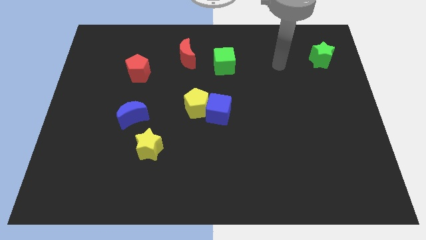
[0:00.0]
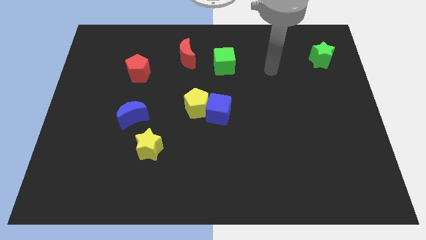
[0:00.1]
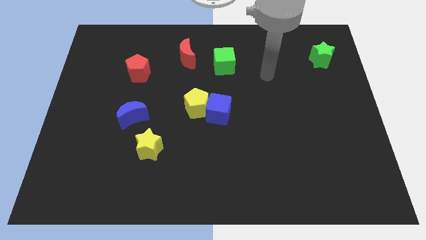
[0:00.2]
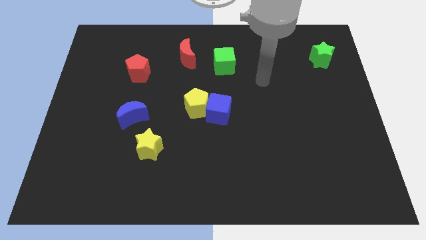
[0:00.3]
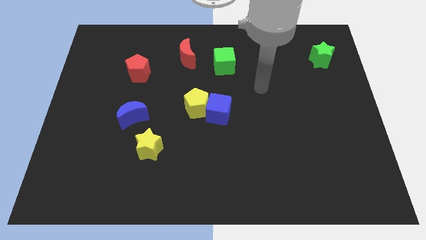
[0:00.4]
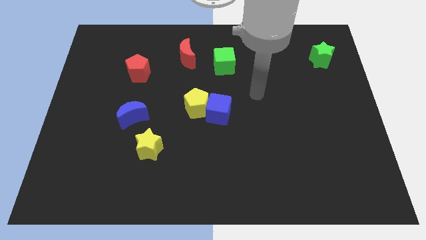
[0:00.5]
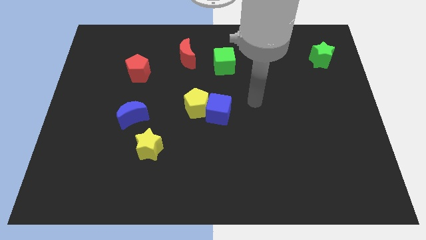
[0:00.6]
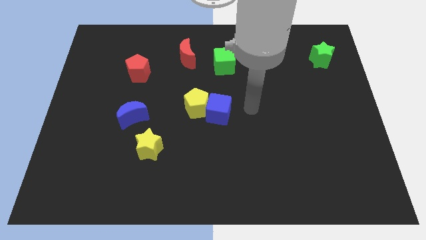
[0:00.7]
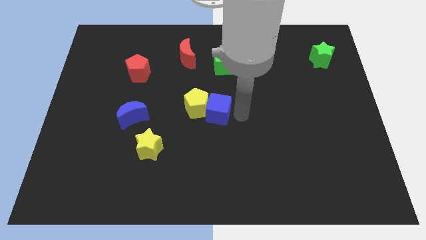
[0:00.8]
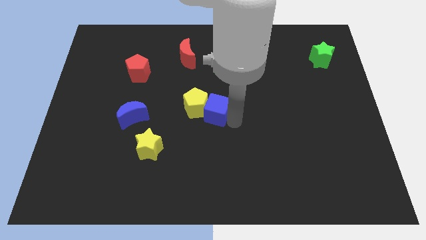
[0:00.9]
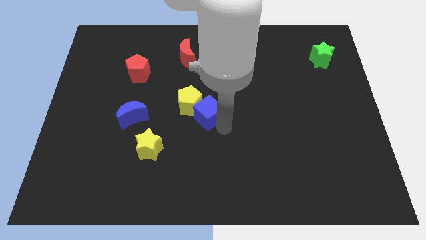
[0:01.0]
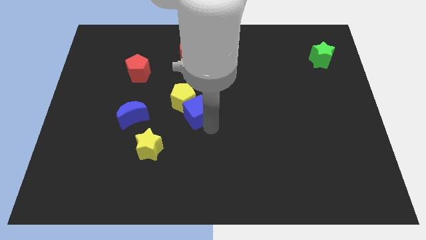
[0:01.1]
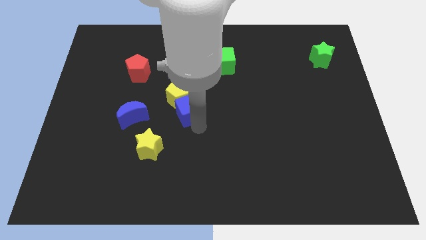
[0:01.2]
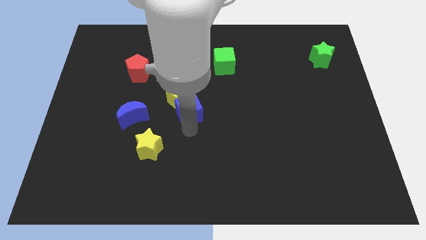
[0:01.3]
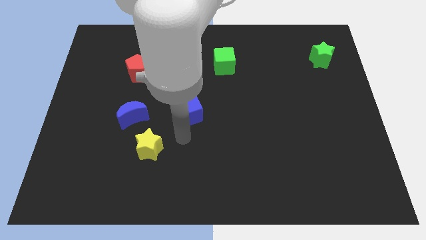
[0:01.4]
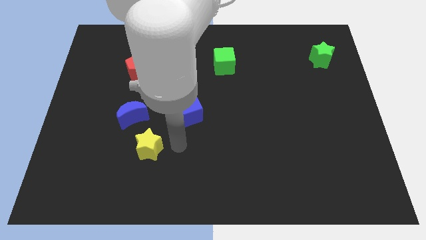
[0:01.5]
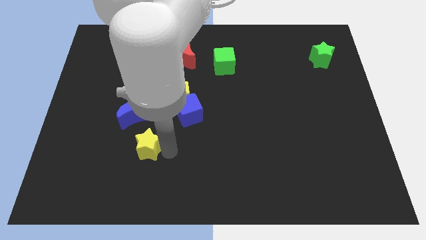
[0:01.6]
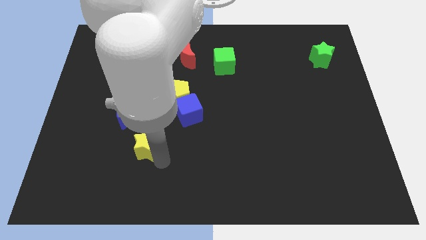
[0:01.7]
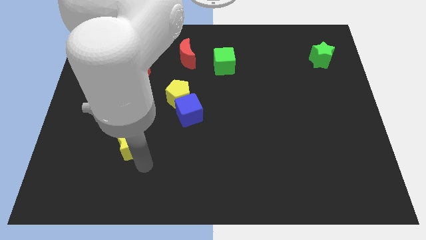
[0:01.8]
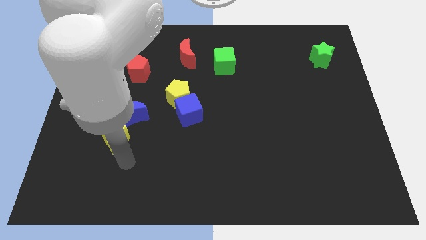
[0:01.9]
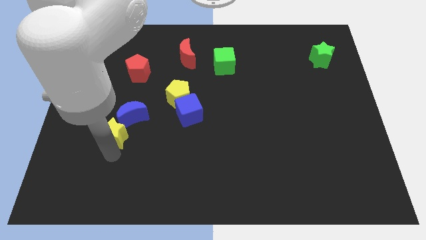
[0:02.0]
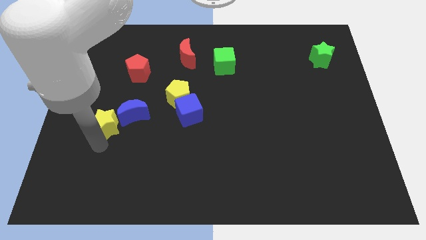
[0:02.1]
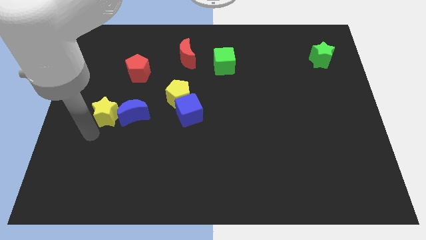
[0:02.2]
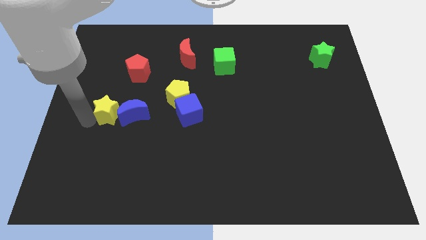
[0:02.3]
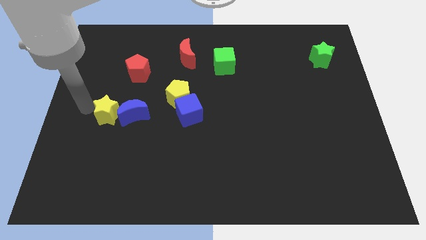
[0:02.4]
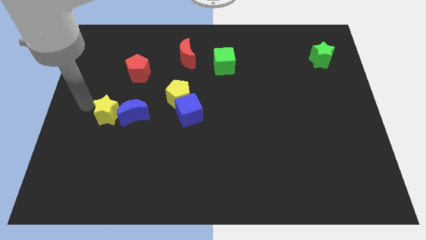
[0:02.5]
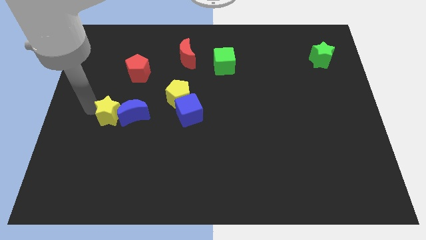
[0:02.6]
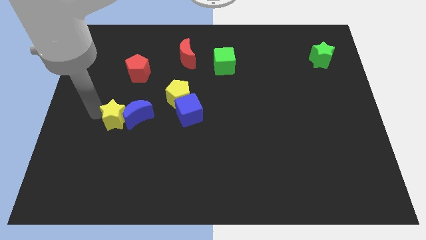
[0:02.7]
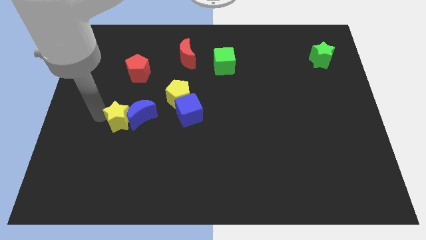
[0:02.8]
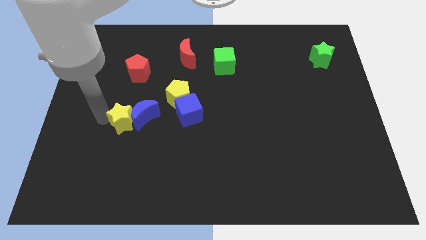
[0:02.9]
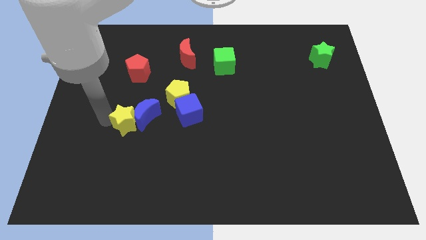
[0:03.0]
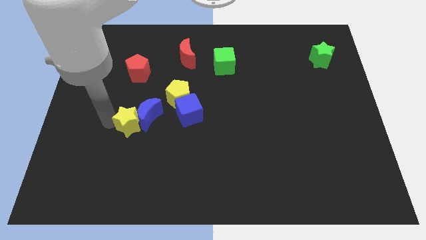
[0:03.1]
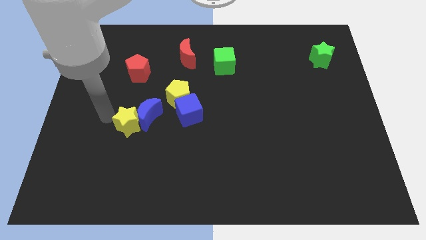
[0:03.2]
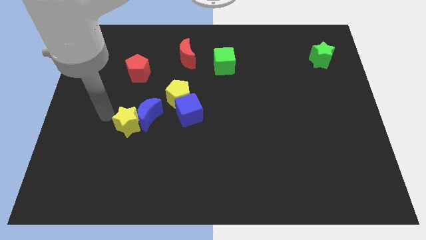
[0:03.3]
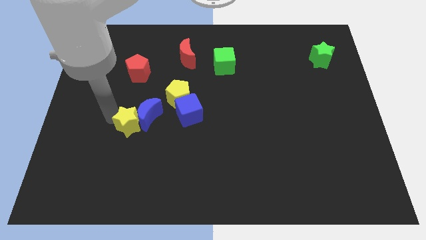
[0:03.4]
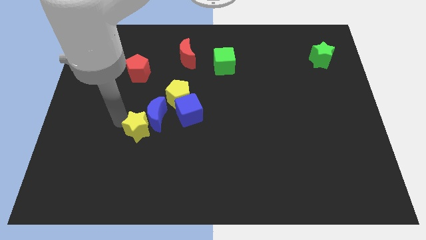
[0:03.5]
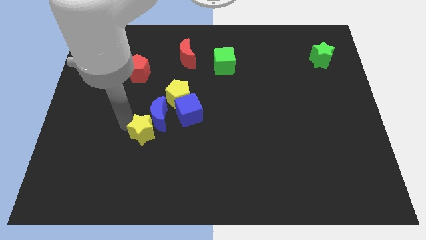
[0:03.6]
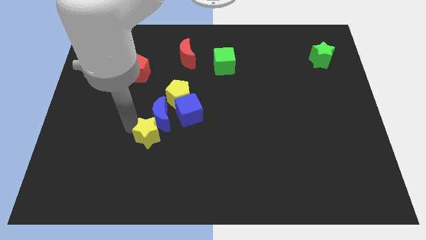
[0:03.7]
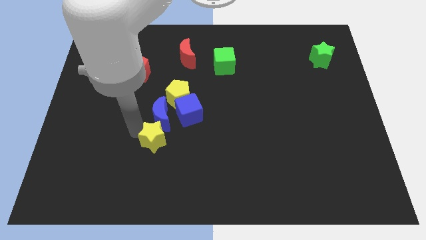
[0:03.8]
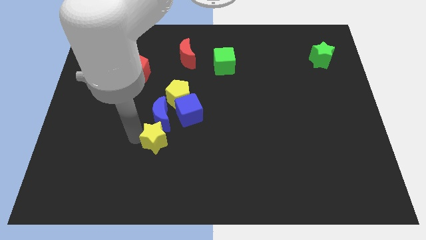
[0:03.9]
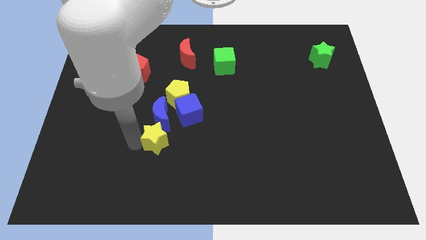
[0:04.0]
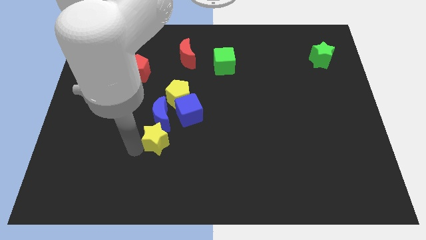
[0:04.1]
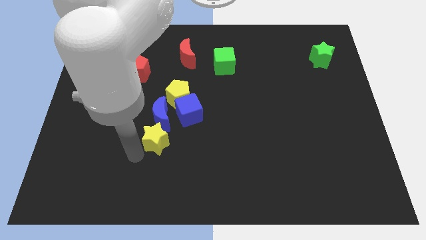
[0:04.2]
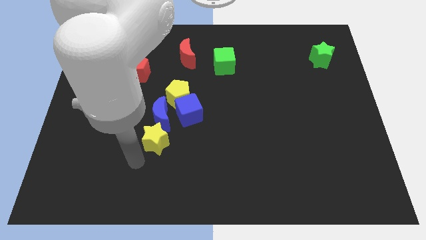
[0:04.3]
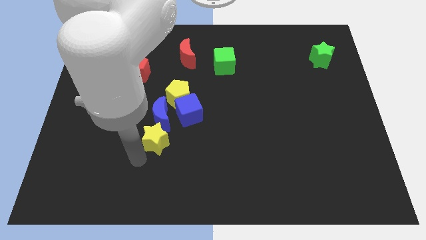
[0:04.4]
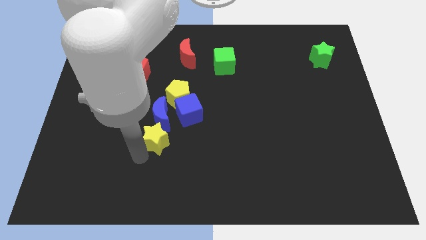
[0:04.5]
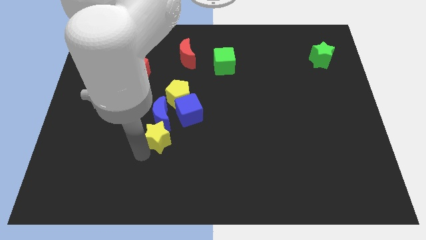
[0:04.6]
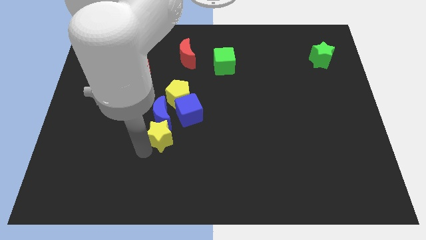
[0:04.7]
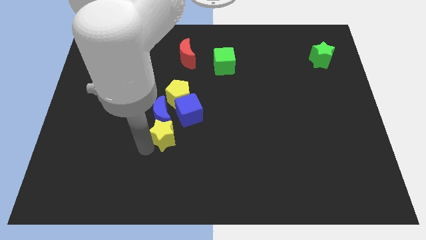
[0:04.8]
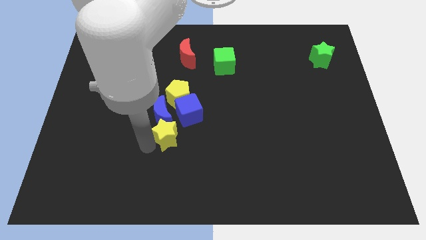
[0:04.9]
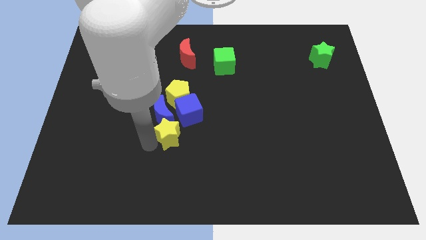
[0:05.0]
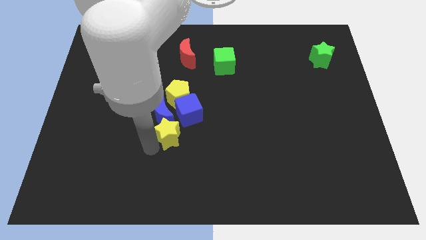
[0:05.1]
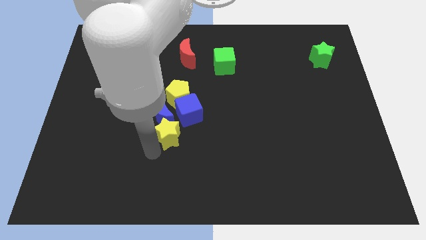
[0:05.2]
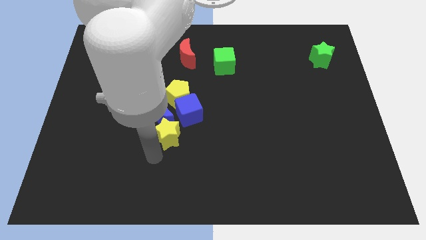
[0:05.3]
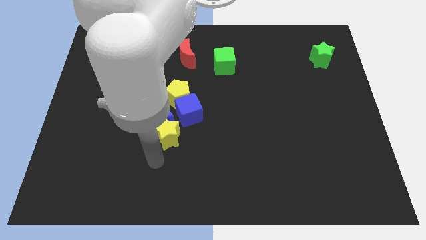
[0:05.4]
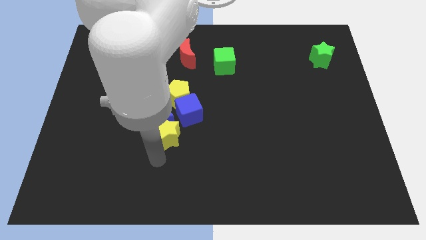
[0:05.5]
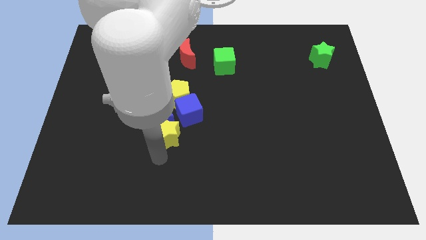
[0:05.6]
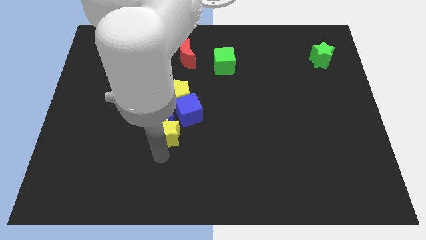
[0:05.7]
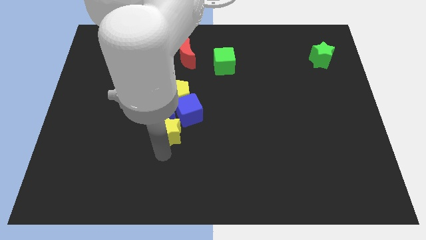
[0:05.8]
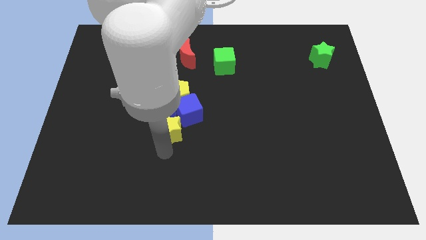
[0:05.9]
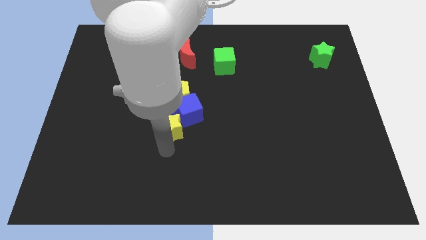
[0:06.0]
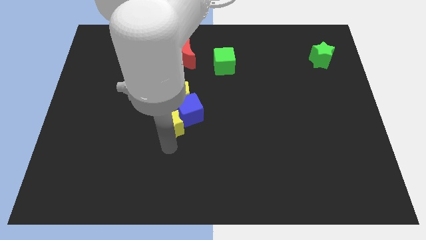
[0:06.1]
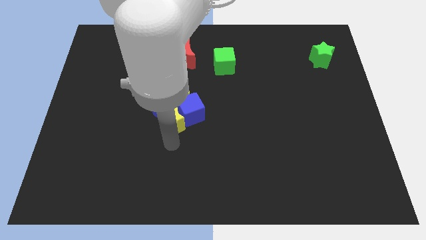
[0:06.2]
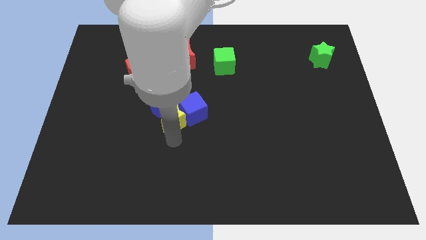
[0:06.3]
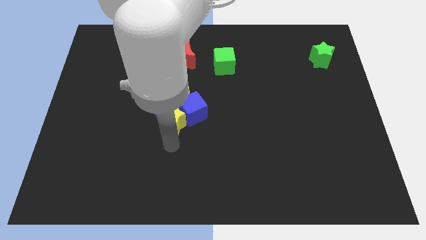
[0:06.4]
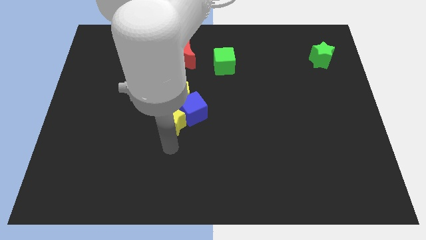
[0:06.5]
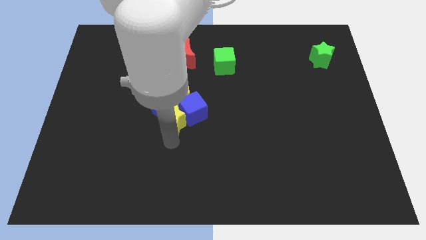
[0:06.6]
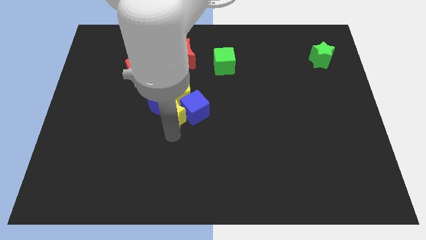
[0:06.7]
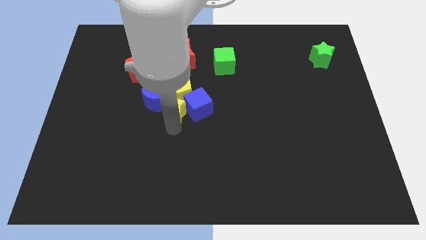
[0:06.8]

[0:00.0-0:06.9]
push the yellow star towards the yellow pentagon

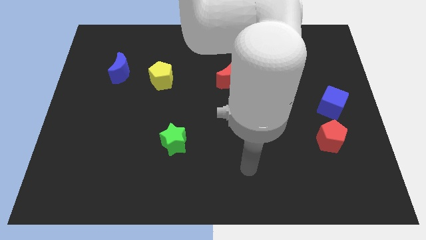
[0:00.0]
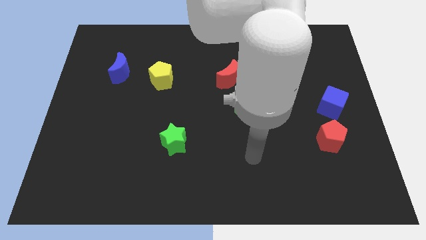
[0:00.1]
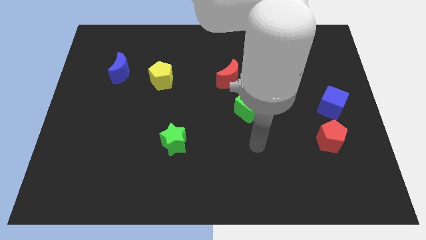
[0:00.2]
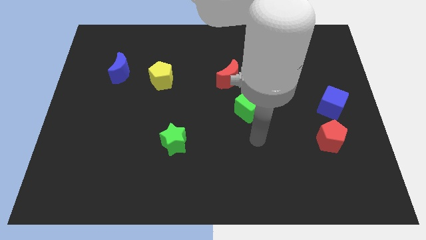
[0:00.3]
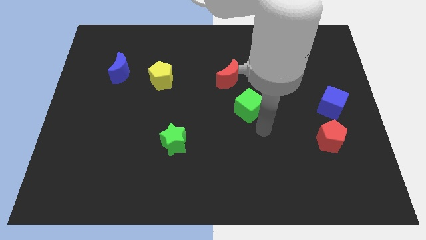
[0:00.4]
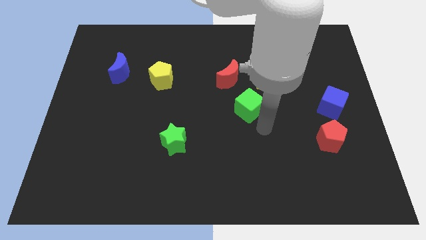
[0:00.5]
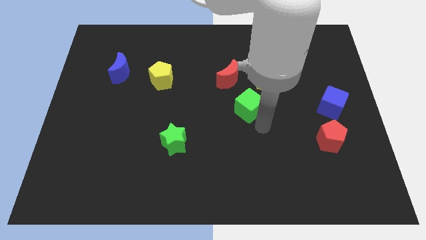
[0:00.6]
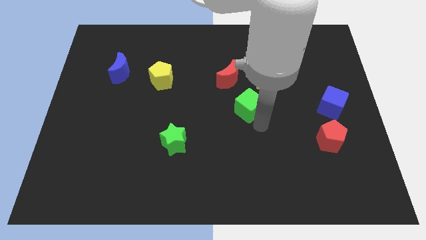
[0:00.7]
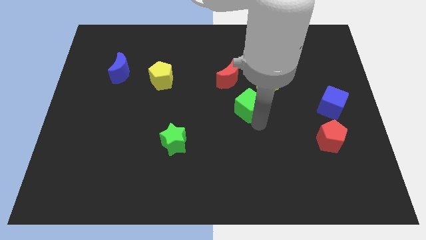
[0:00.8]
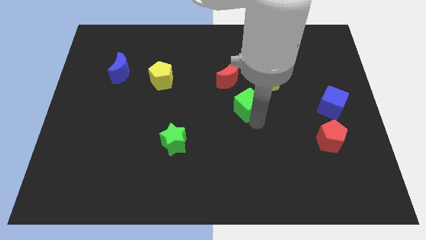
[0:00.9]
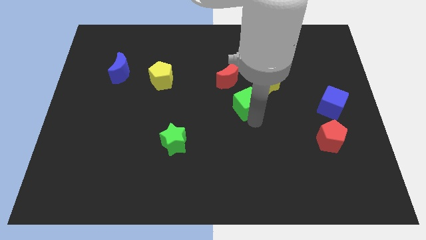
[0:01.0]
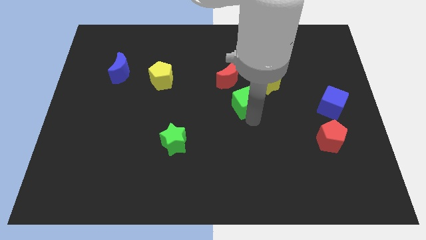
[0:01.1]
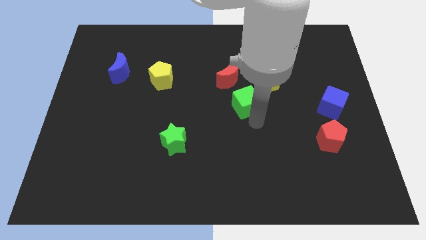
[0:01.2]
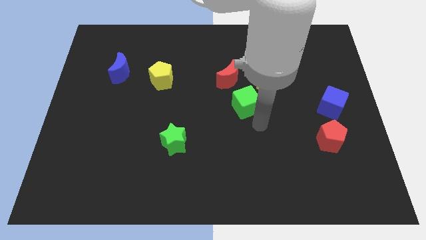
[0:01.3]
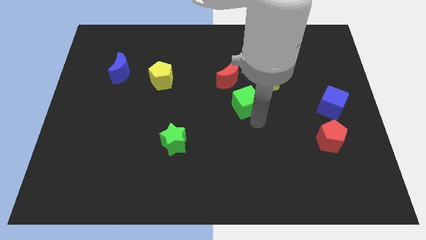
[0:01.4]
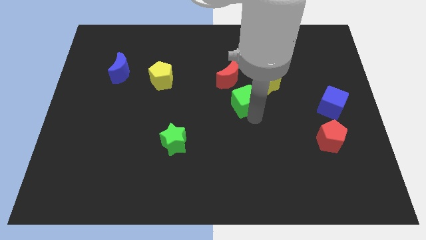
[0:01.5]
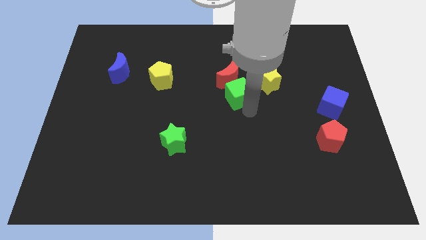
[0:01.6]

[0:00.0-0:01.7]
slide the green cube next to the red moon
